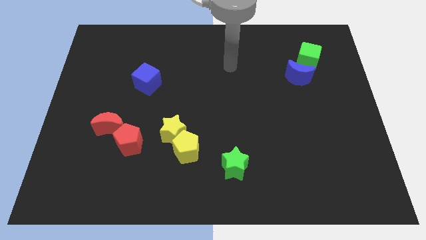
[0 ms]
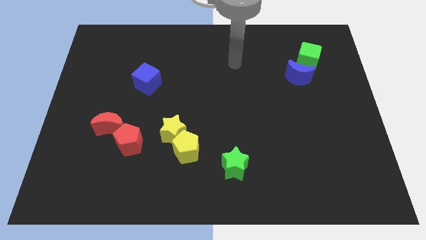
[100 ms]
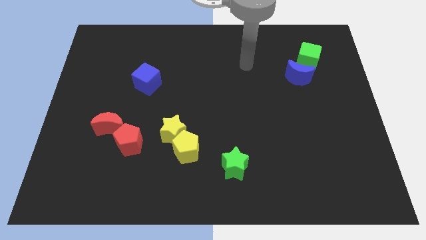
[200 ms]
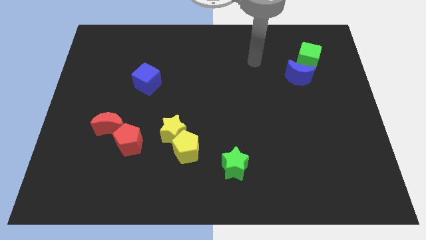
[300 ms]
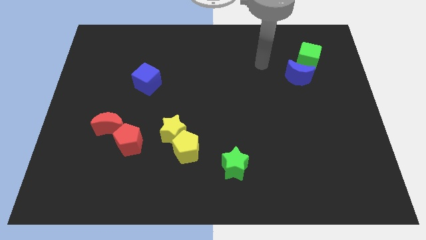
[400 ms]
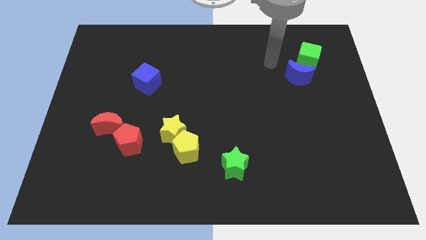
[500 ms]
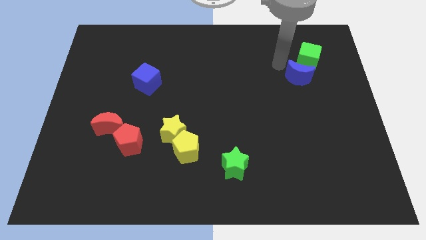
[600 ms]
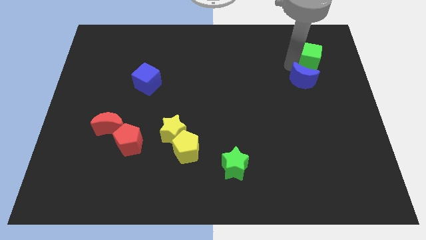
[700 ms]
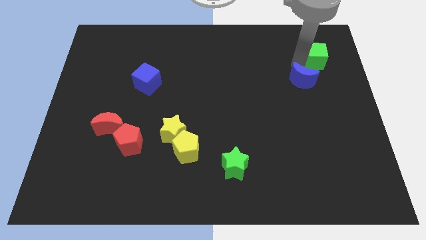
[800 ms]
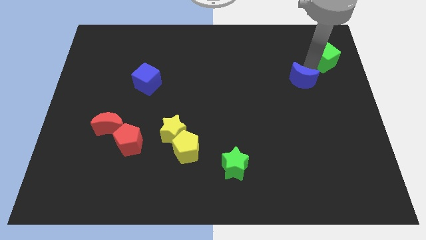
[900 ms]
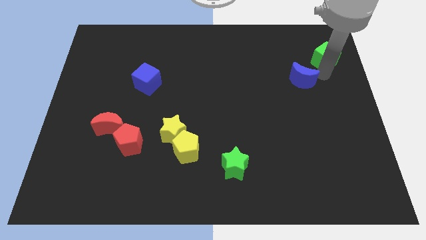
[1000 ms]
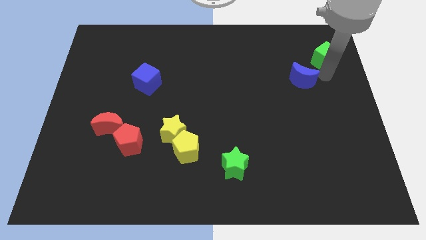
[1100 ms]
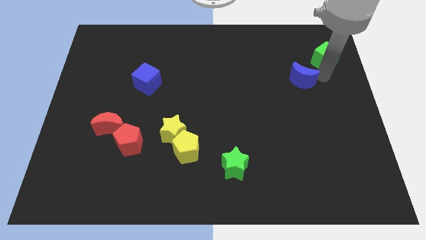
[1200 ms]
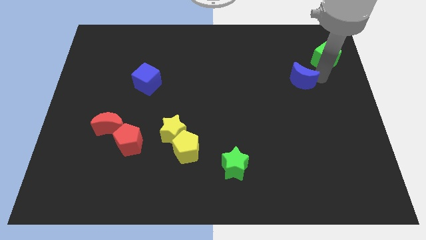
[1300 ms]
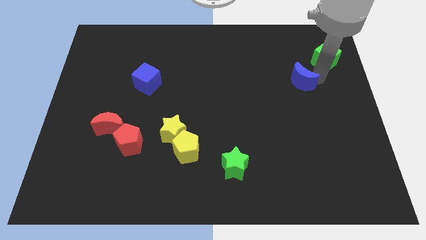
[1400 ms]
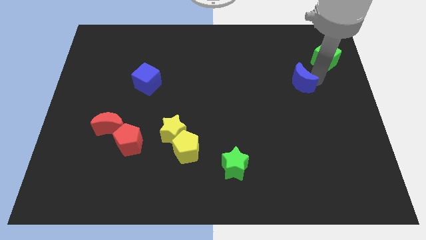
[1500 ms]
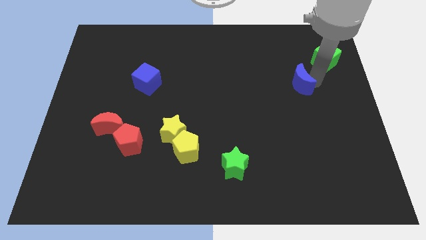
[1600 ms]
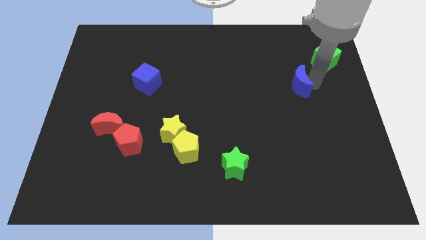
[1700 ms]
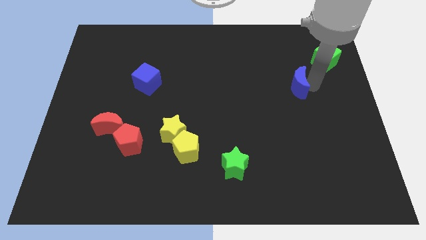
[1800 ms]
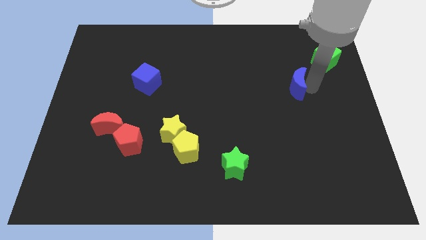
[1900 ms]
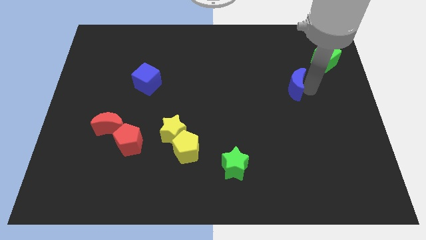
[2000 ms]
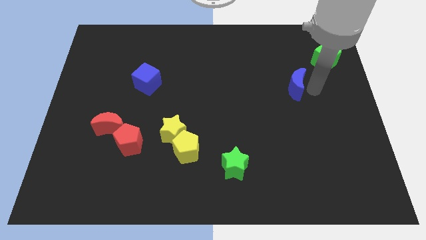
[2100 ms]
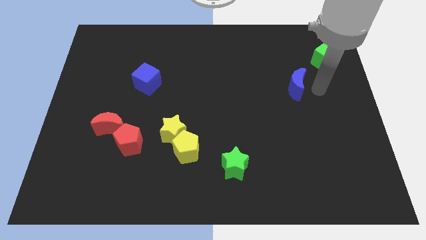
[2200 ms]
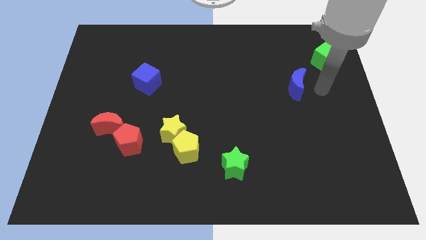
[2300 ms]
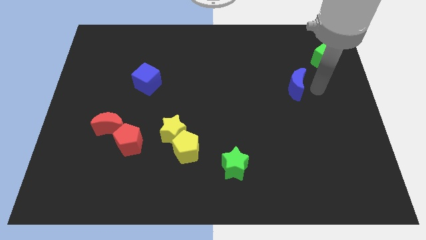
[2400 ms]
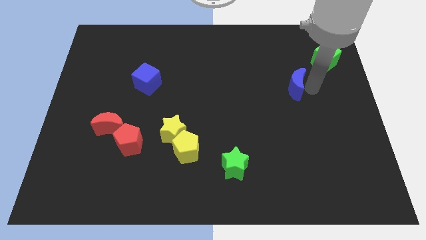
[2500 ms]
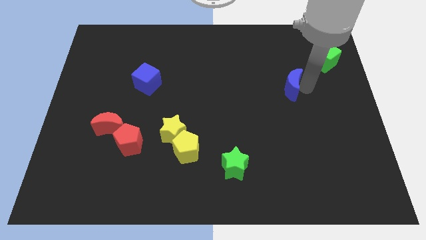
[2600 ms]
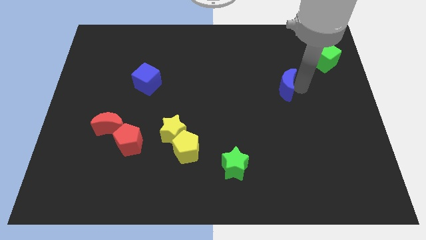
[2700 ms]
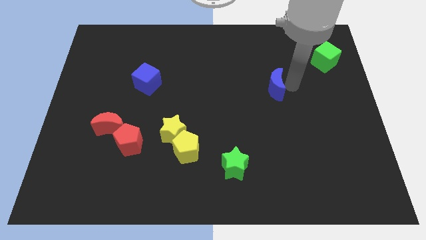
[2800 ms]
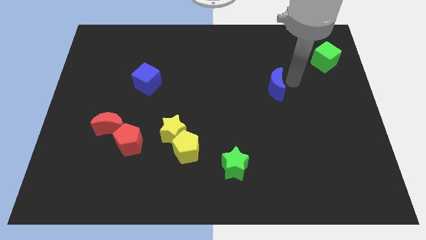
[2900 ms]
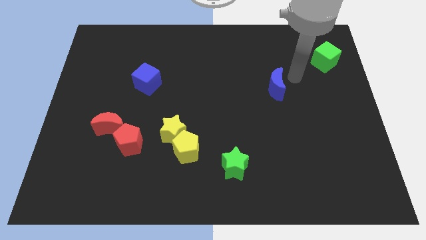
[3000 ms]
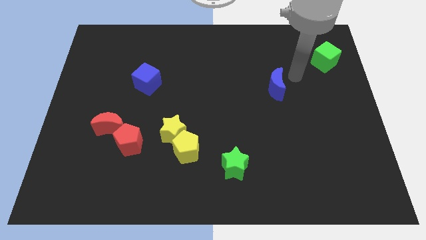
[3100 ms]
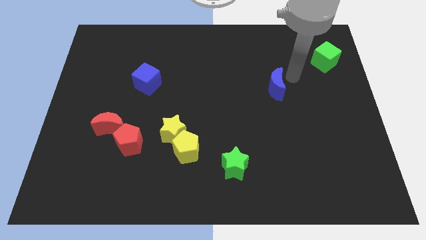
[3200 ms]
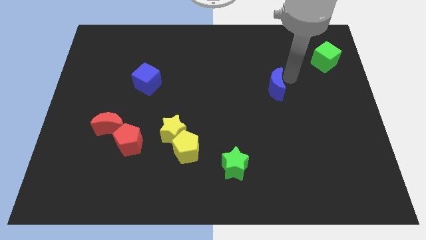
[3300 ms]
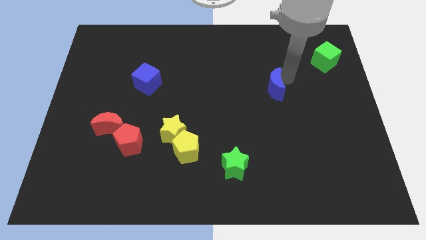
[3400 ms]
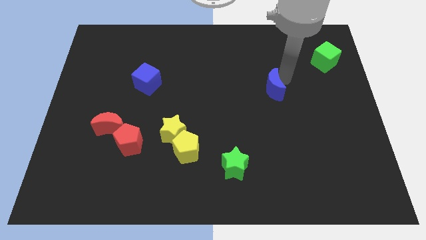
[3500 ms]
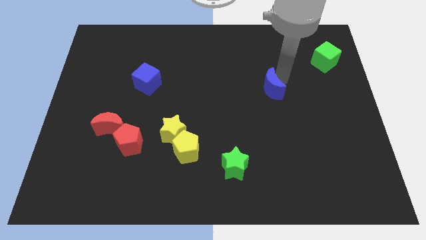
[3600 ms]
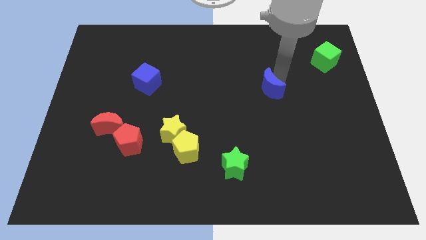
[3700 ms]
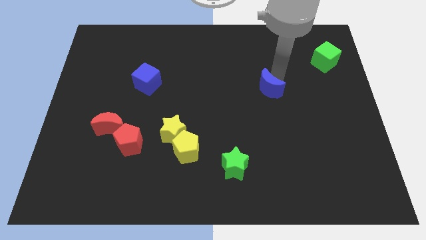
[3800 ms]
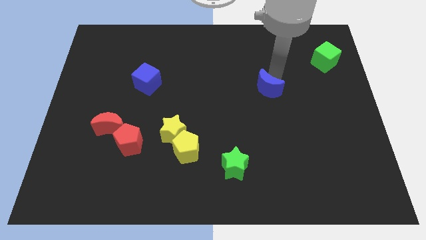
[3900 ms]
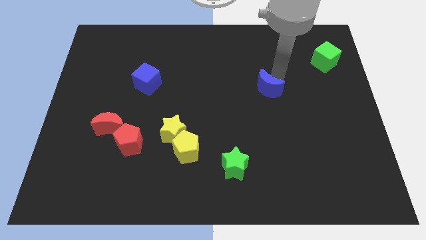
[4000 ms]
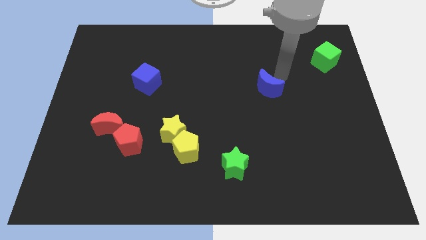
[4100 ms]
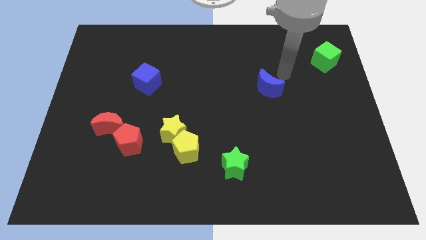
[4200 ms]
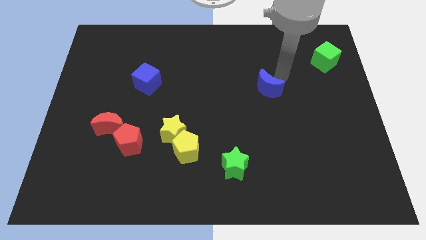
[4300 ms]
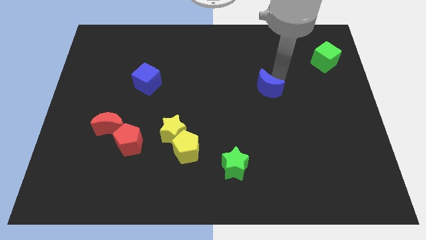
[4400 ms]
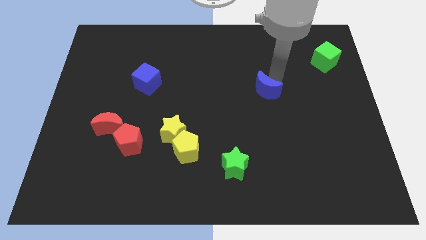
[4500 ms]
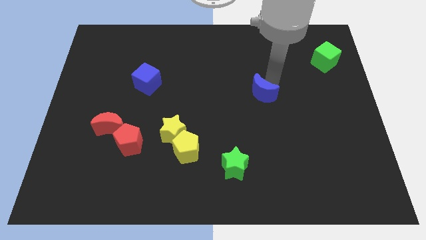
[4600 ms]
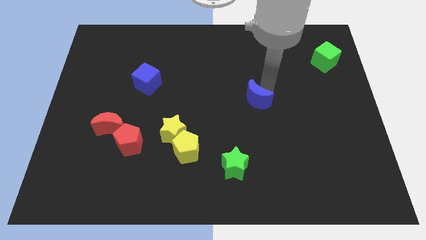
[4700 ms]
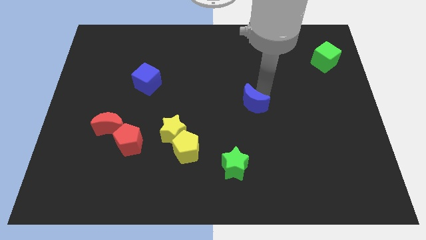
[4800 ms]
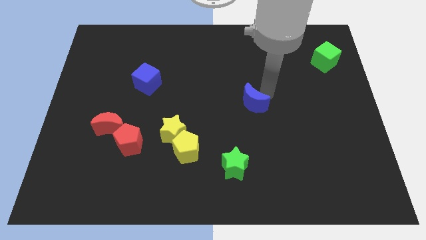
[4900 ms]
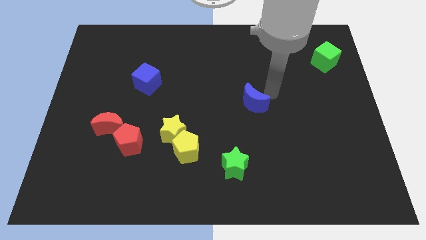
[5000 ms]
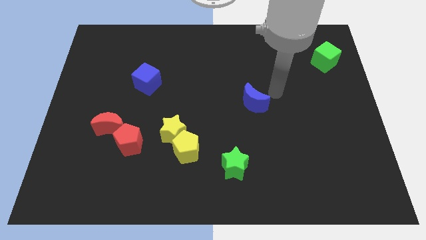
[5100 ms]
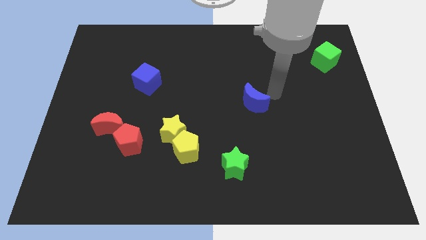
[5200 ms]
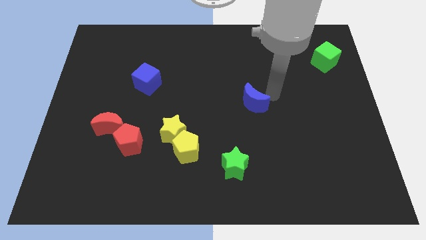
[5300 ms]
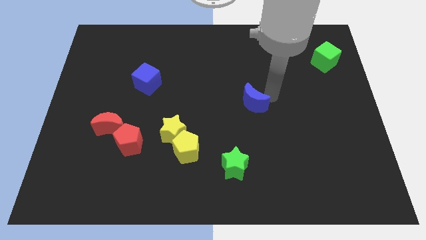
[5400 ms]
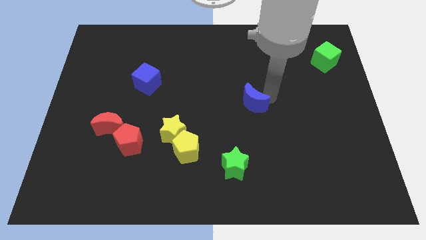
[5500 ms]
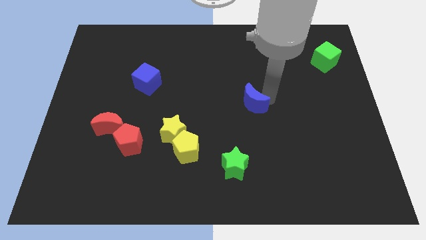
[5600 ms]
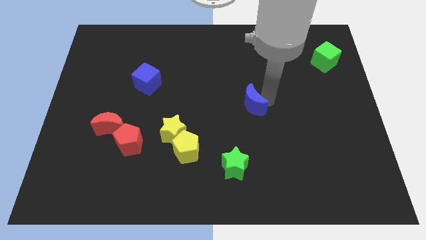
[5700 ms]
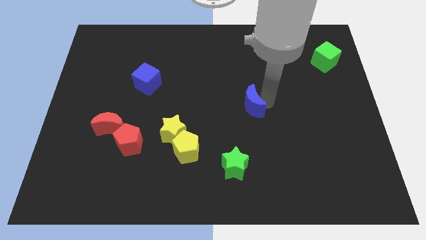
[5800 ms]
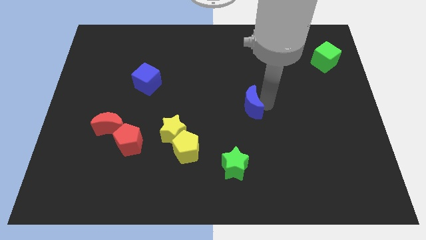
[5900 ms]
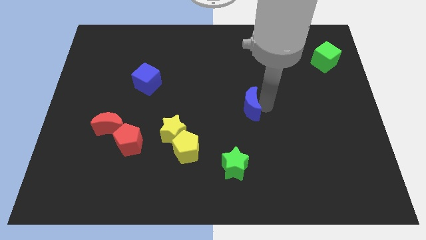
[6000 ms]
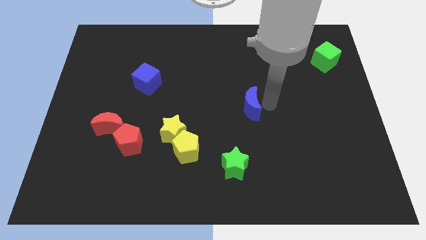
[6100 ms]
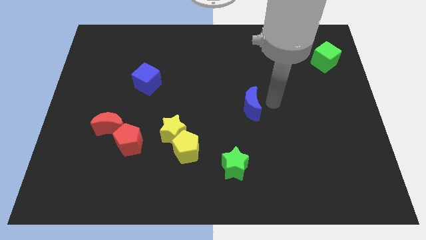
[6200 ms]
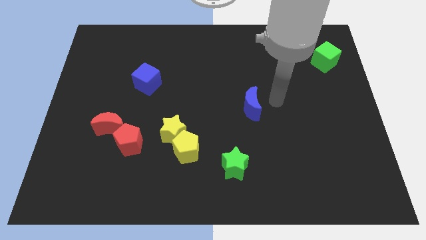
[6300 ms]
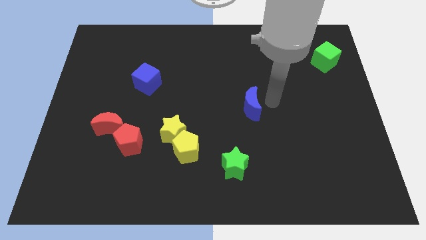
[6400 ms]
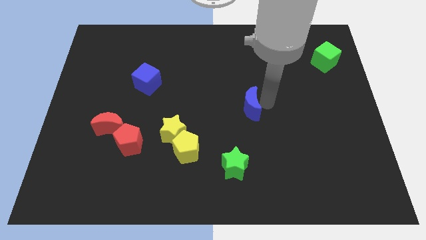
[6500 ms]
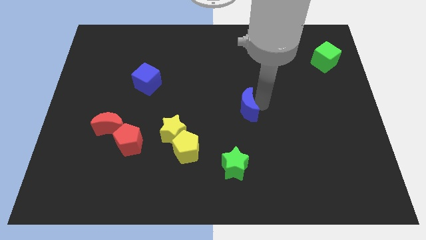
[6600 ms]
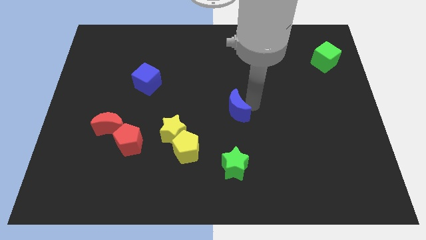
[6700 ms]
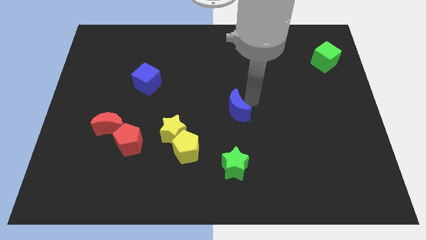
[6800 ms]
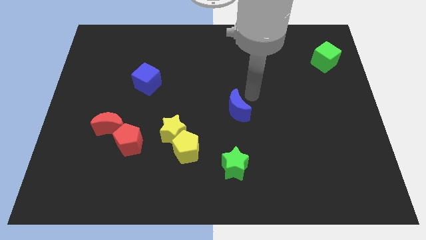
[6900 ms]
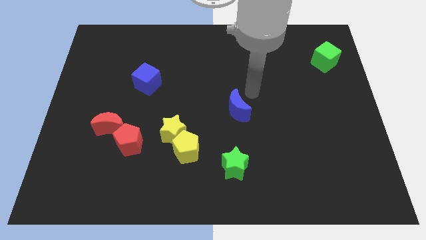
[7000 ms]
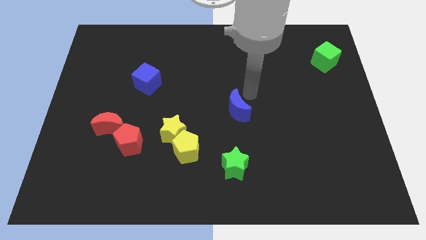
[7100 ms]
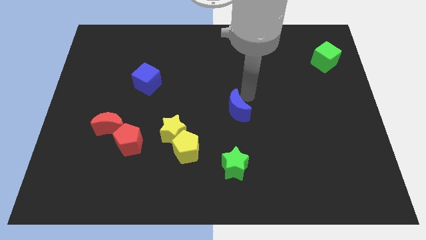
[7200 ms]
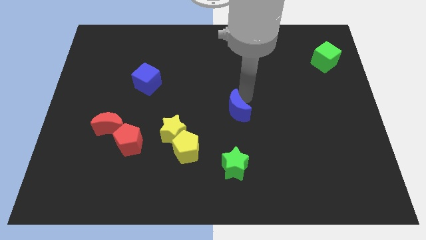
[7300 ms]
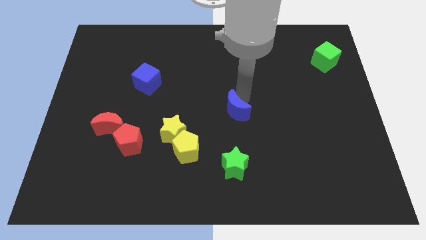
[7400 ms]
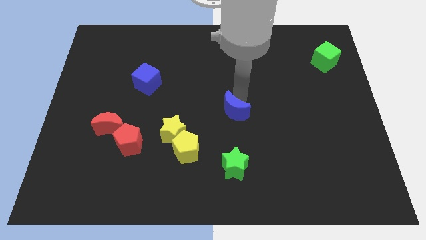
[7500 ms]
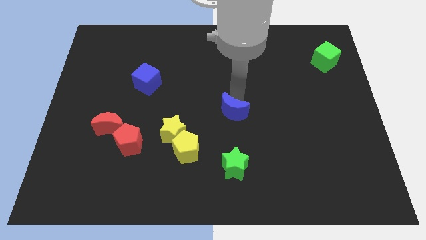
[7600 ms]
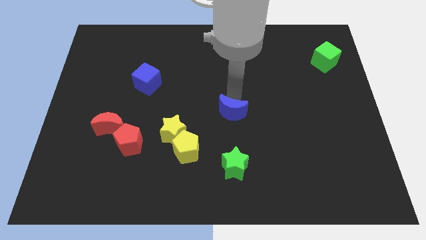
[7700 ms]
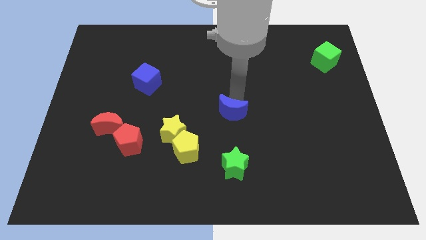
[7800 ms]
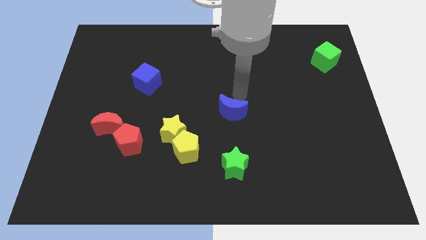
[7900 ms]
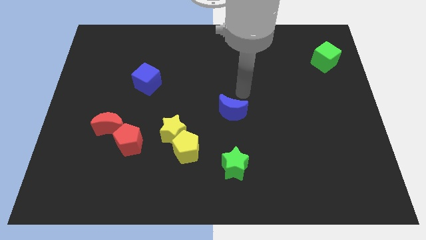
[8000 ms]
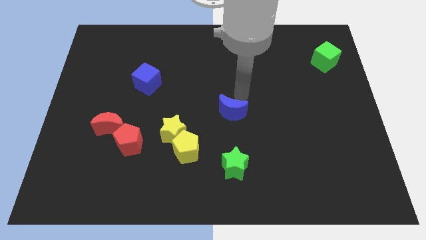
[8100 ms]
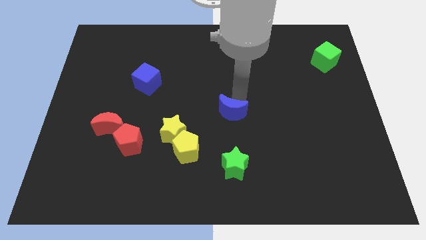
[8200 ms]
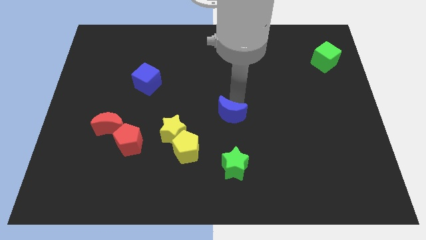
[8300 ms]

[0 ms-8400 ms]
move the blue moon downwards and then left
